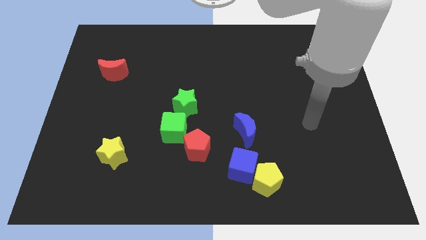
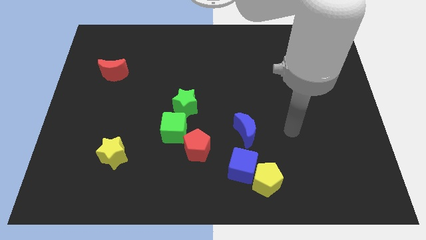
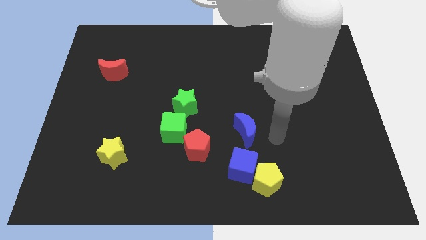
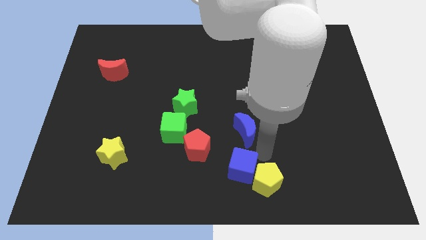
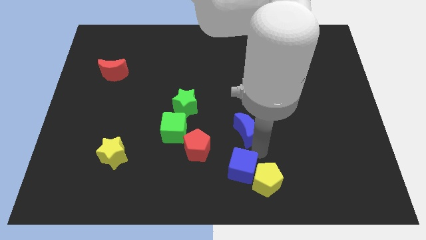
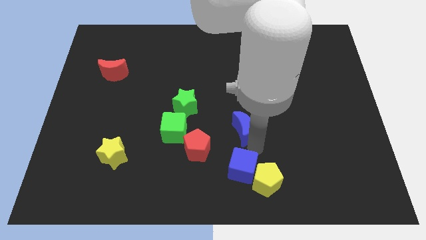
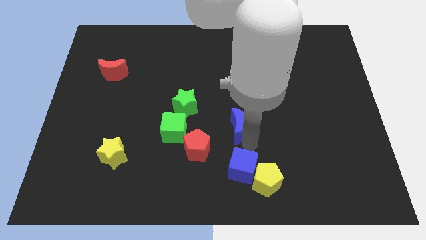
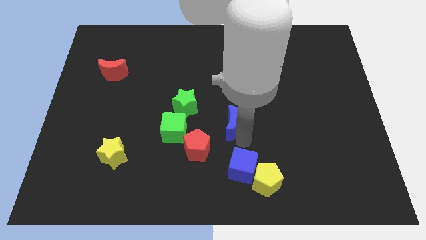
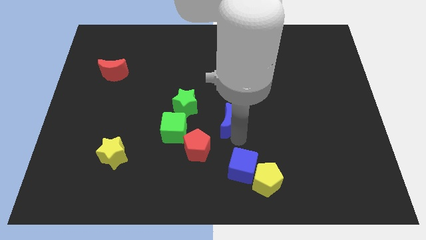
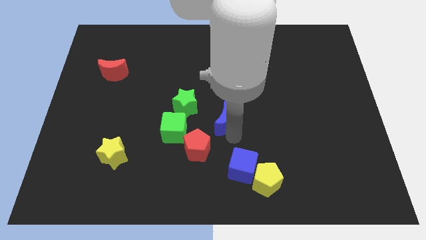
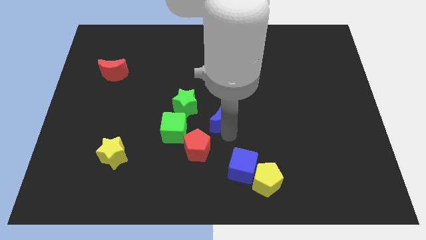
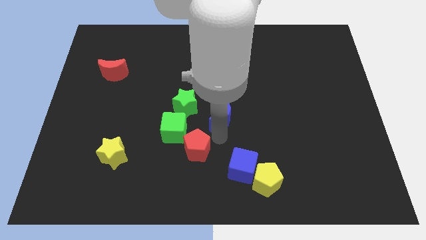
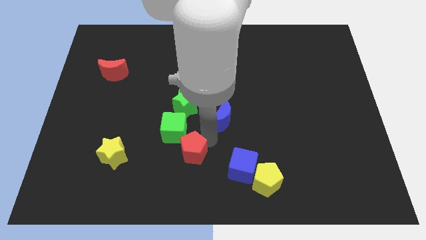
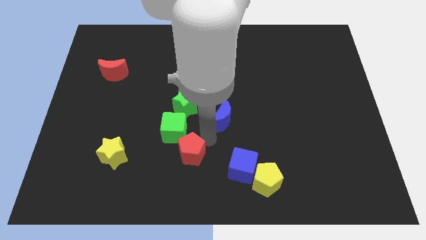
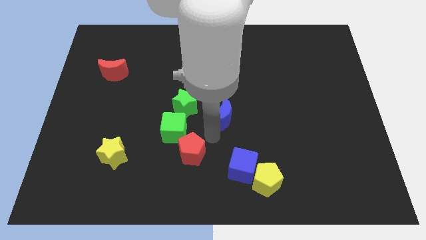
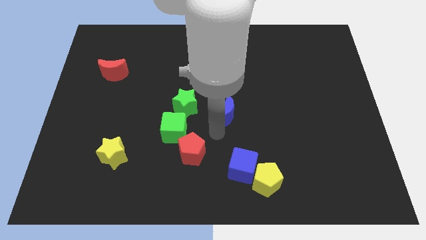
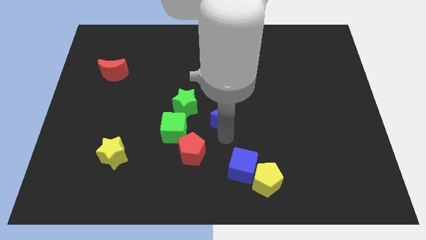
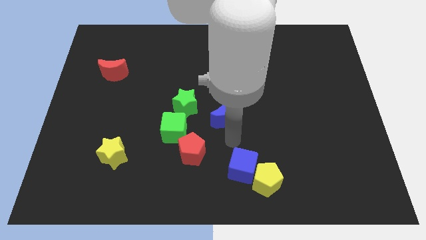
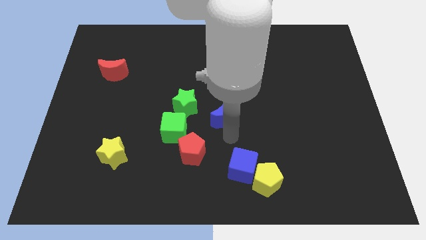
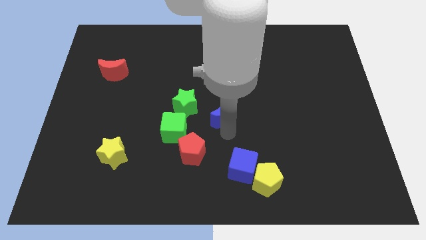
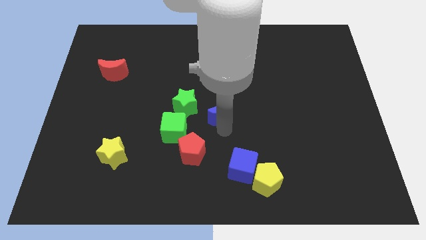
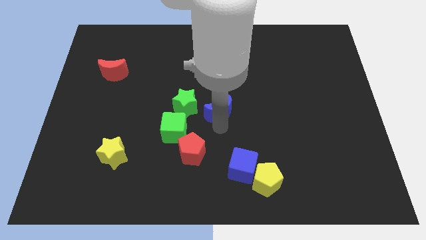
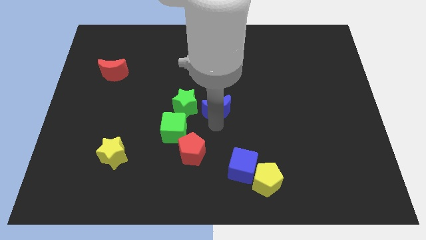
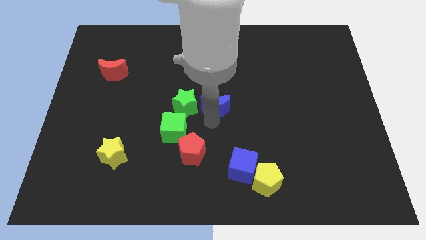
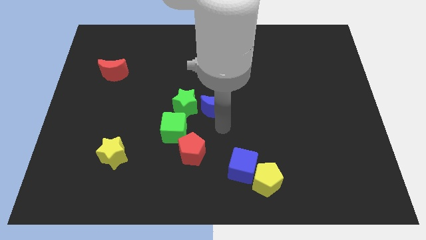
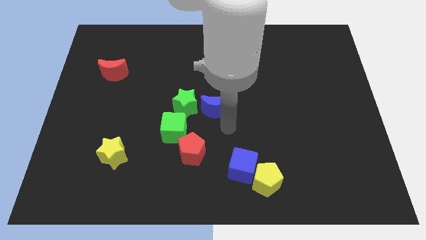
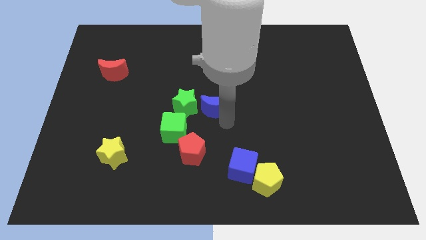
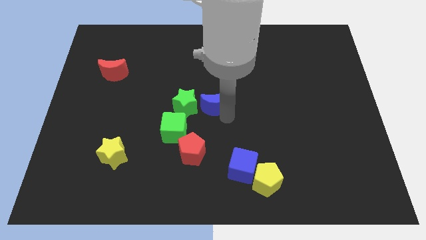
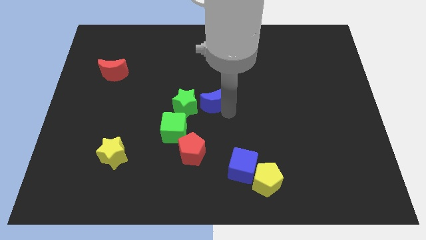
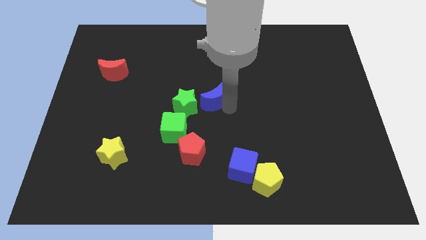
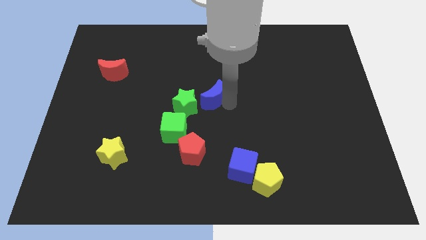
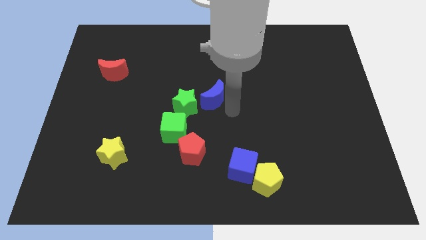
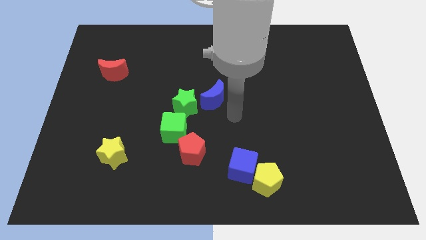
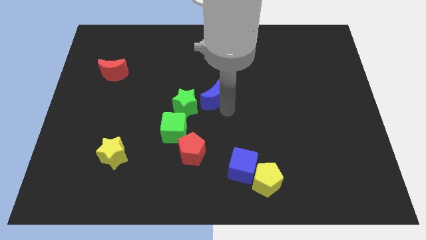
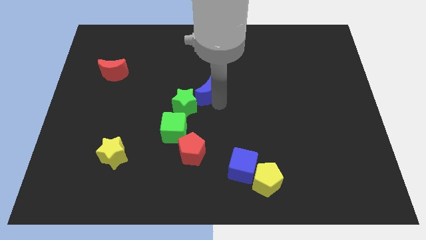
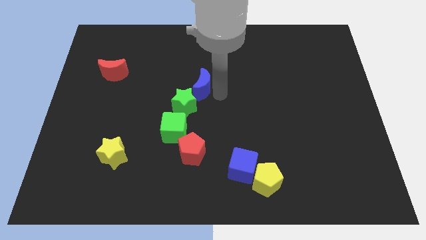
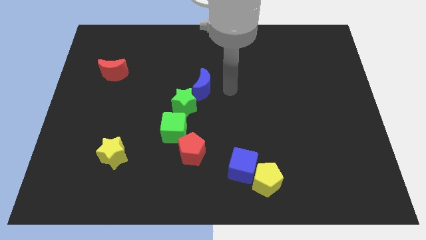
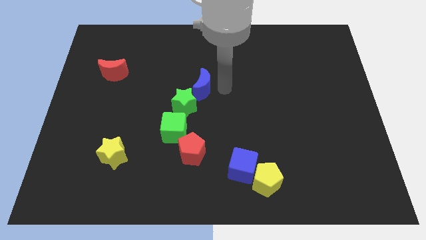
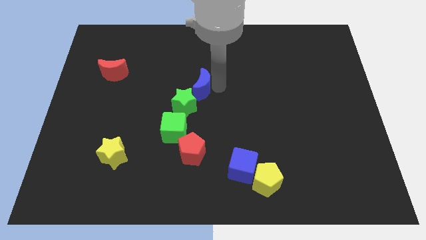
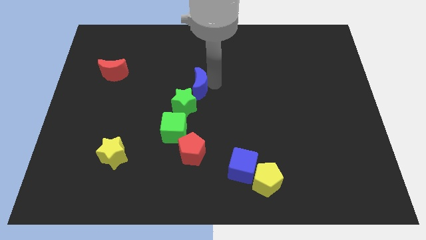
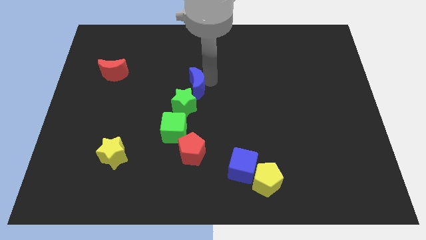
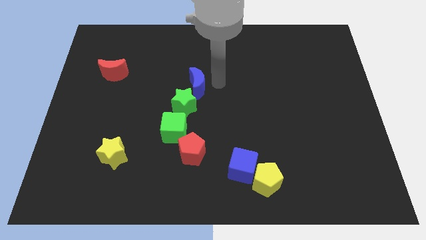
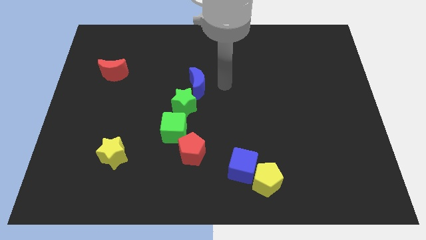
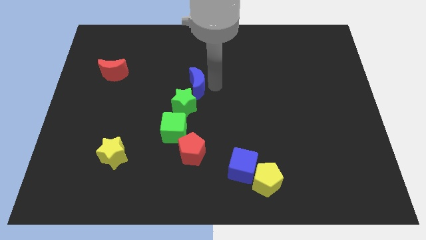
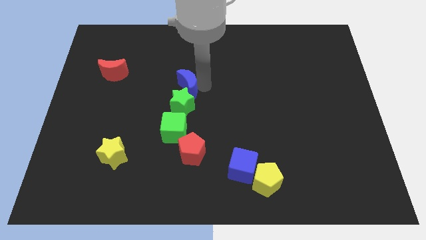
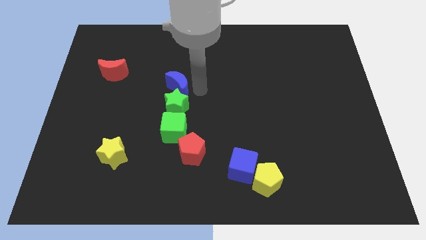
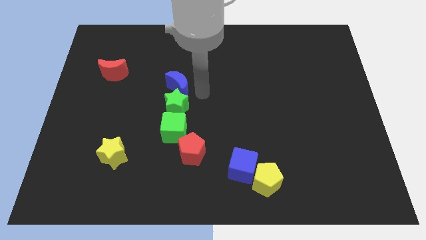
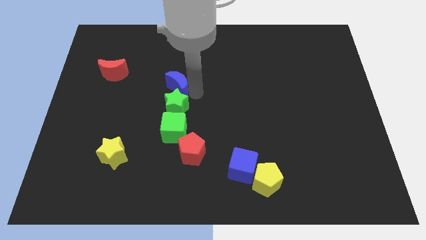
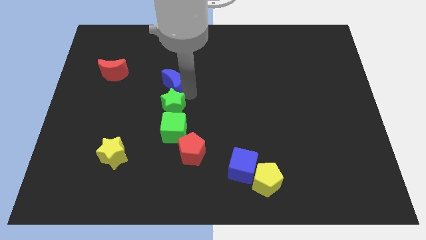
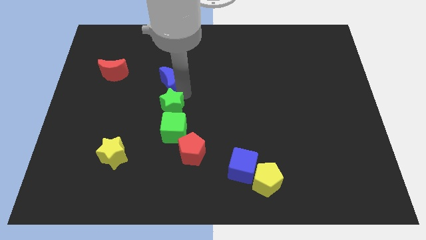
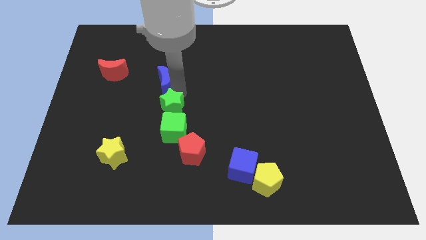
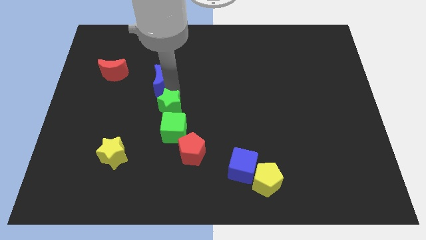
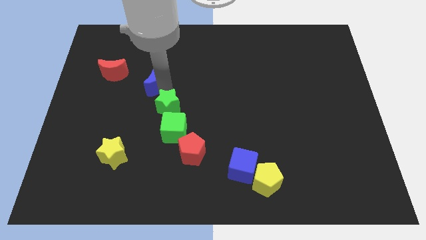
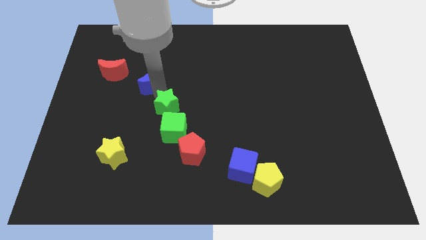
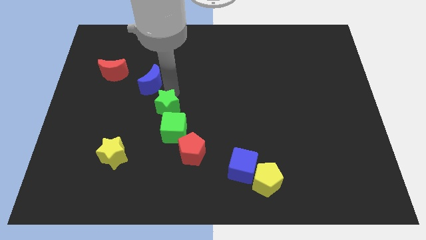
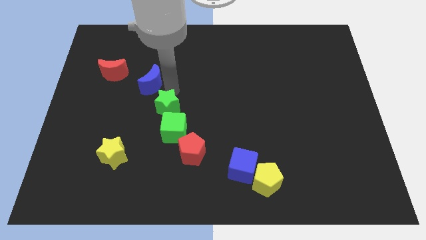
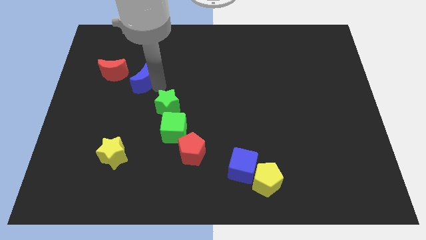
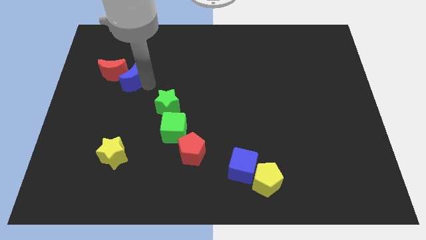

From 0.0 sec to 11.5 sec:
move the blue moon next to the red moon
